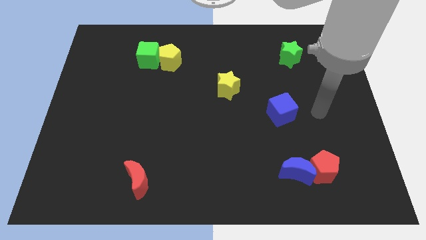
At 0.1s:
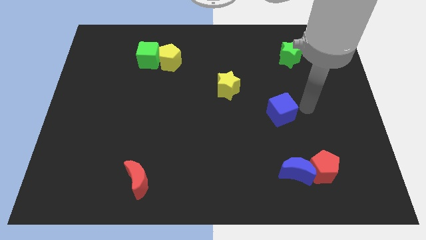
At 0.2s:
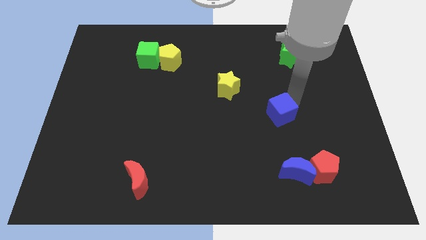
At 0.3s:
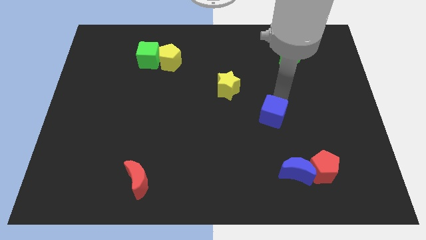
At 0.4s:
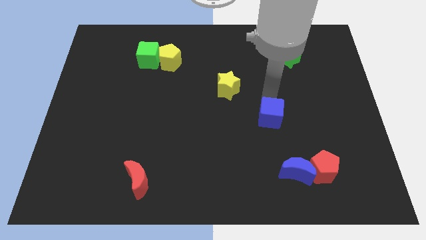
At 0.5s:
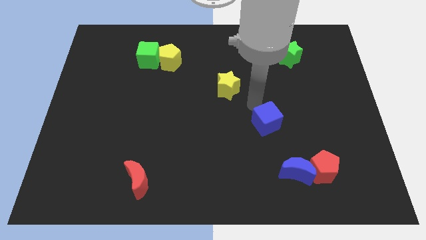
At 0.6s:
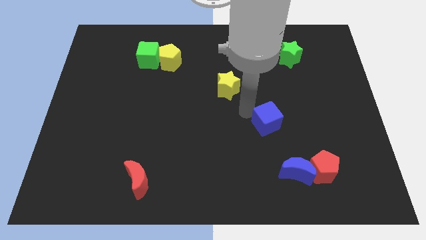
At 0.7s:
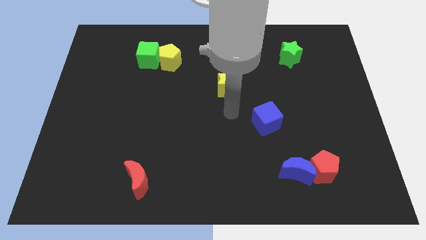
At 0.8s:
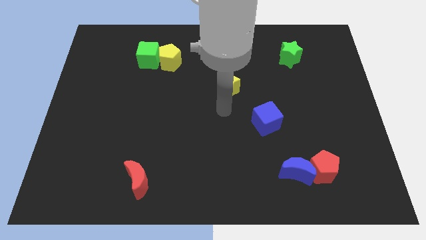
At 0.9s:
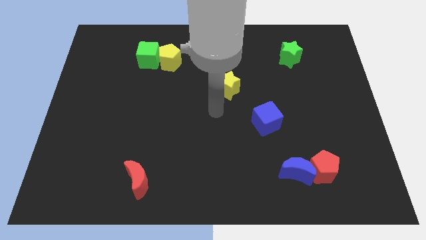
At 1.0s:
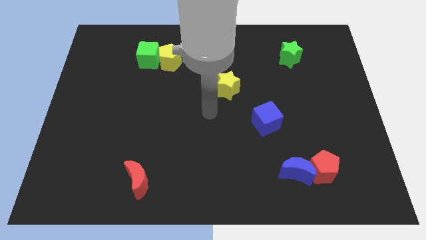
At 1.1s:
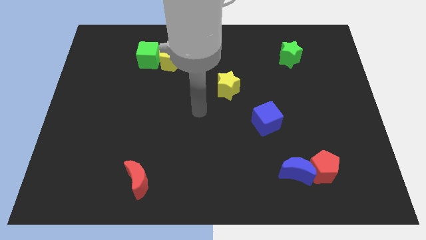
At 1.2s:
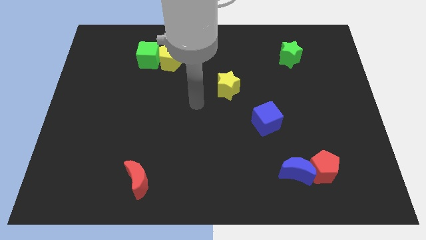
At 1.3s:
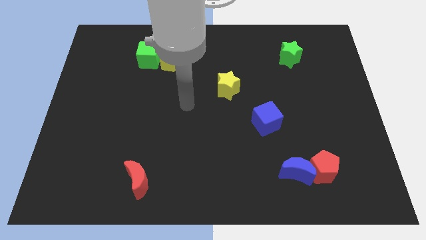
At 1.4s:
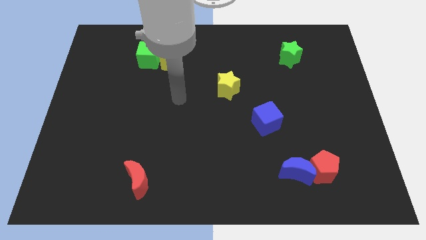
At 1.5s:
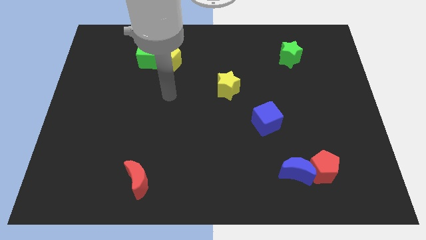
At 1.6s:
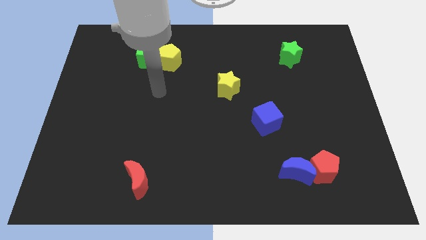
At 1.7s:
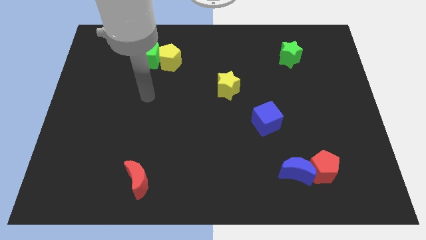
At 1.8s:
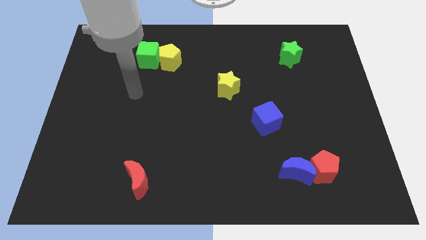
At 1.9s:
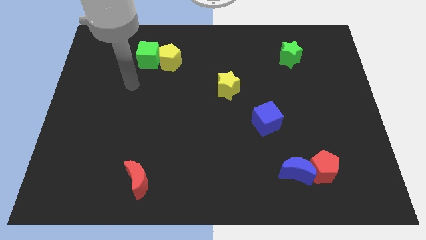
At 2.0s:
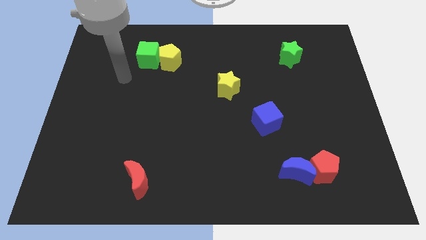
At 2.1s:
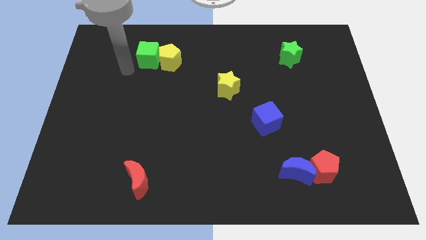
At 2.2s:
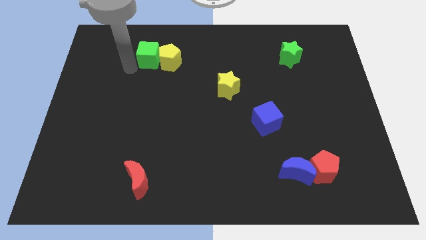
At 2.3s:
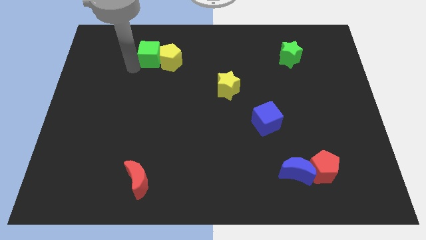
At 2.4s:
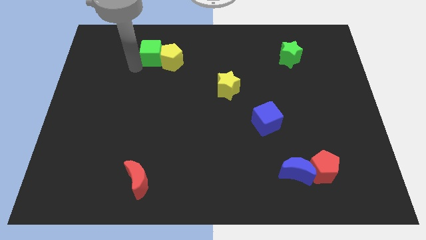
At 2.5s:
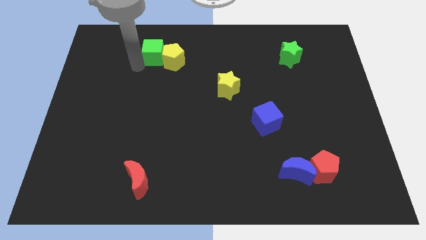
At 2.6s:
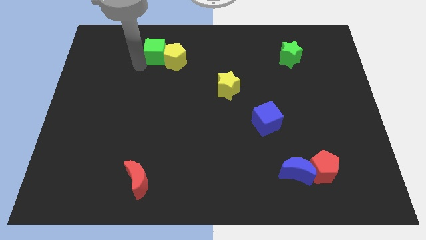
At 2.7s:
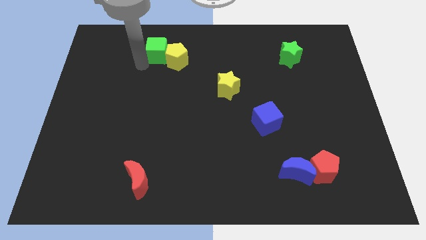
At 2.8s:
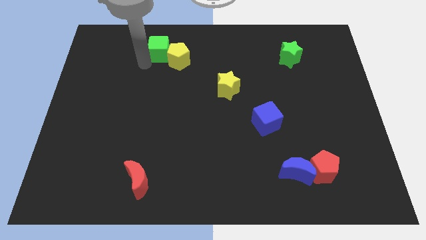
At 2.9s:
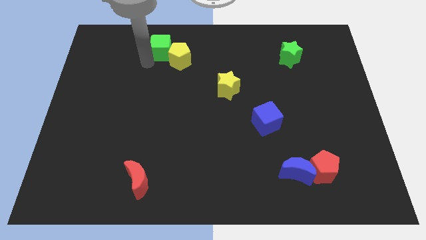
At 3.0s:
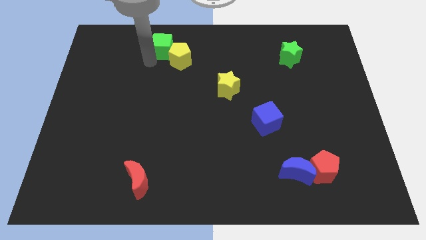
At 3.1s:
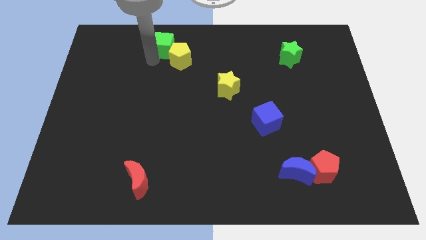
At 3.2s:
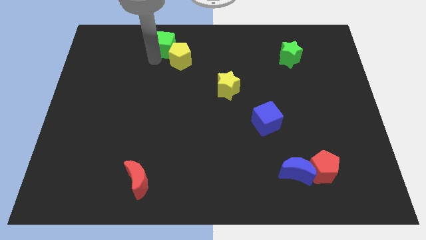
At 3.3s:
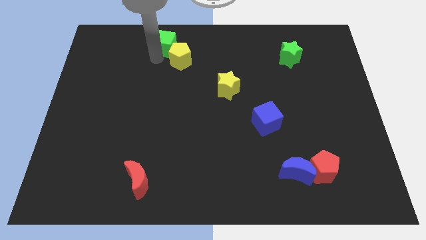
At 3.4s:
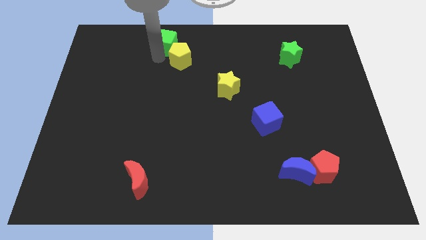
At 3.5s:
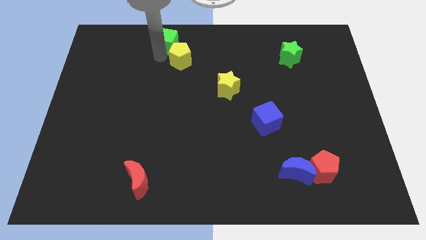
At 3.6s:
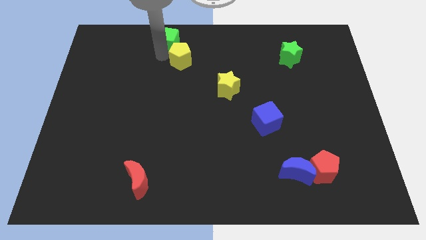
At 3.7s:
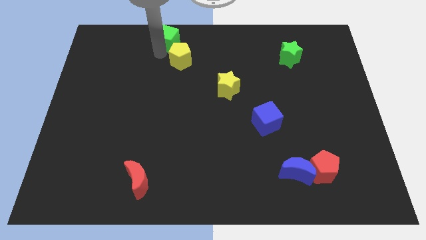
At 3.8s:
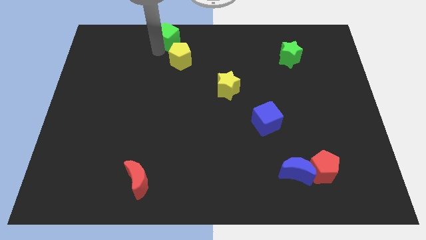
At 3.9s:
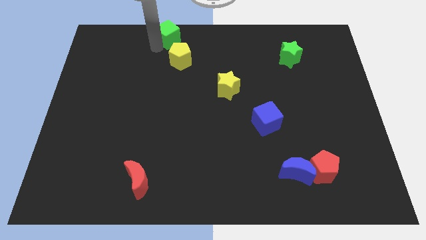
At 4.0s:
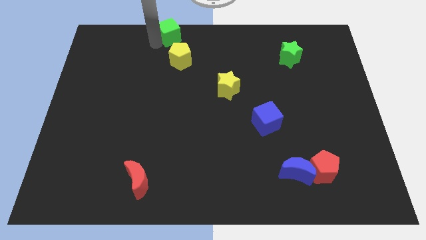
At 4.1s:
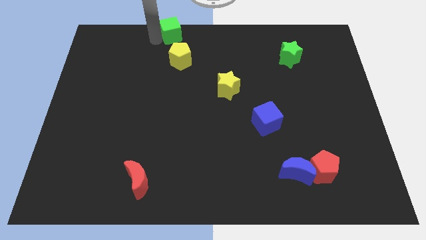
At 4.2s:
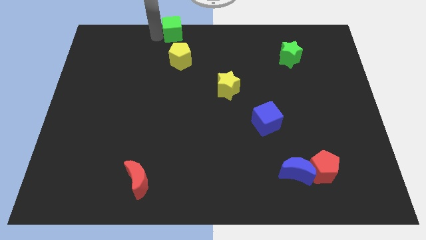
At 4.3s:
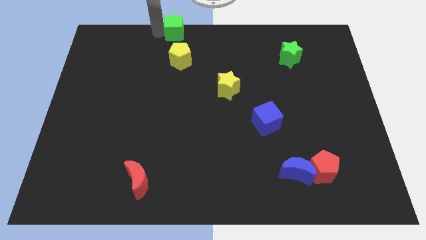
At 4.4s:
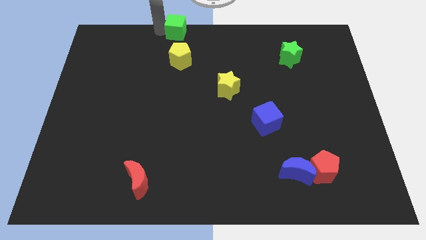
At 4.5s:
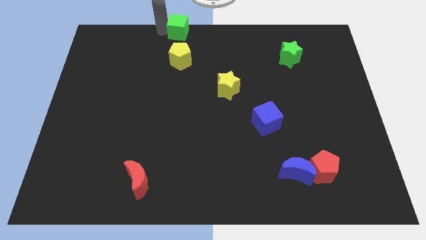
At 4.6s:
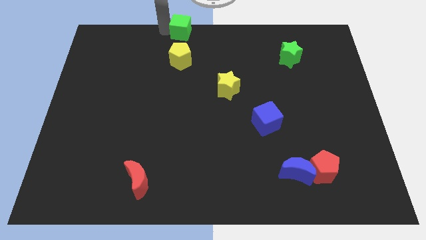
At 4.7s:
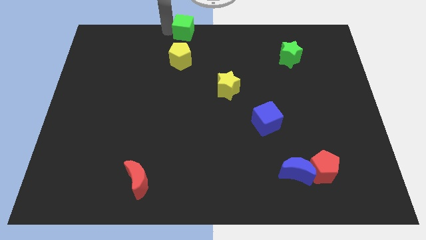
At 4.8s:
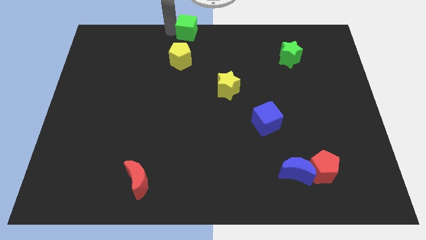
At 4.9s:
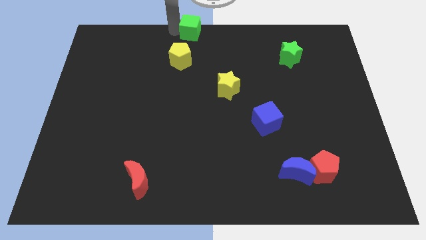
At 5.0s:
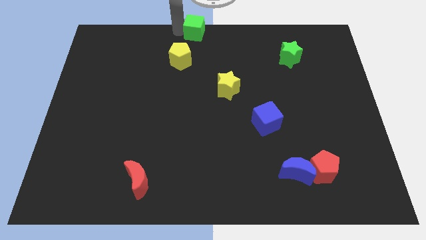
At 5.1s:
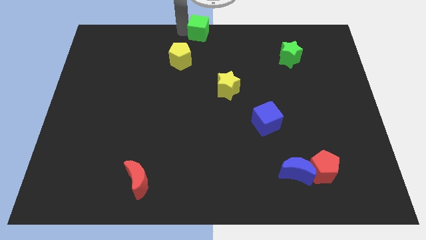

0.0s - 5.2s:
slightly move the green cube right

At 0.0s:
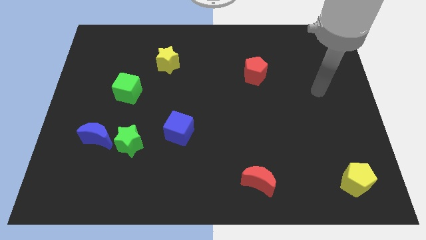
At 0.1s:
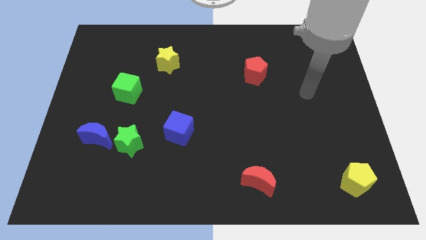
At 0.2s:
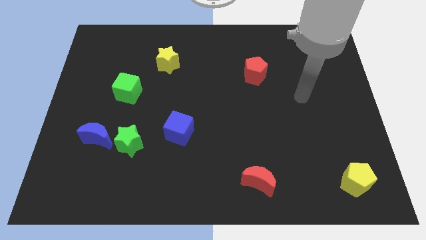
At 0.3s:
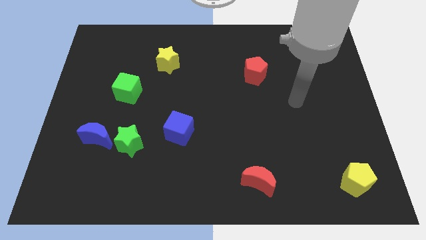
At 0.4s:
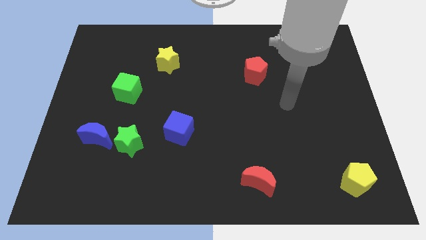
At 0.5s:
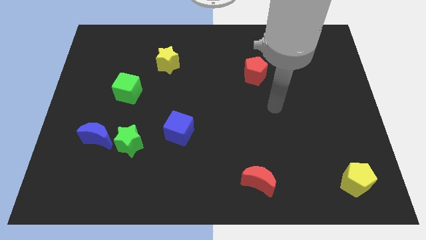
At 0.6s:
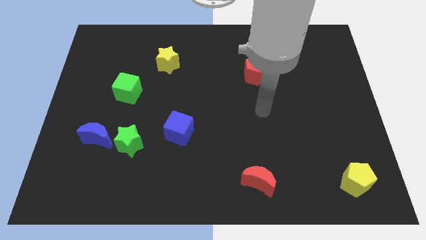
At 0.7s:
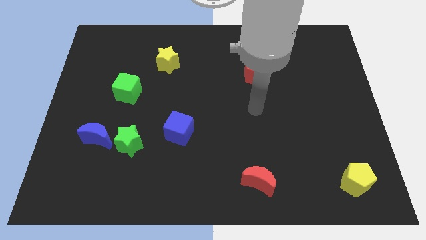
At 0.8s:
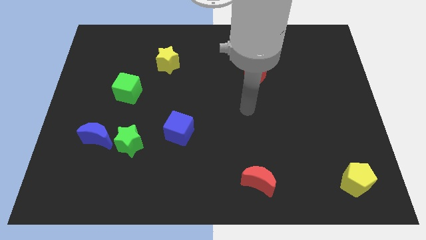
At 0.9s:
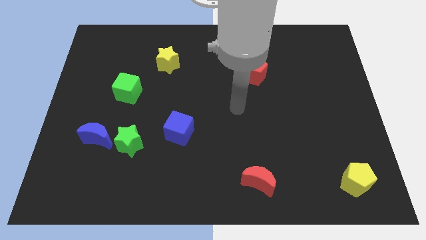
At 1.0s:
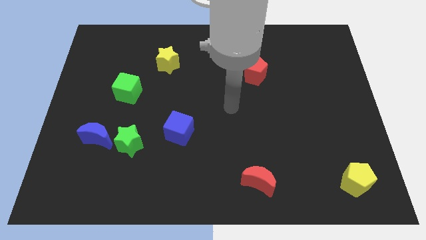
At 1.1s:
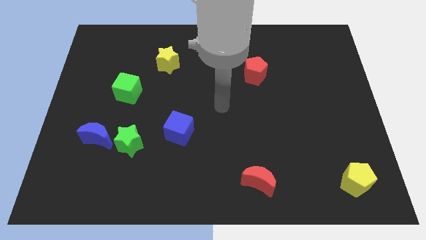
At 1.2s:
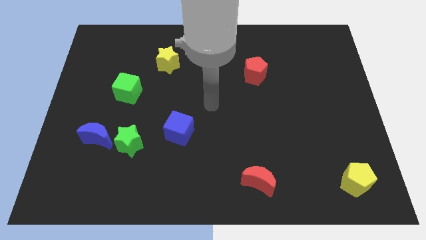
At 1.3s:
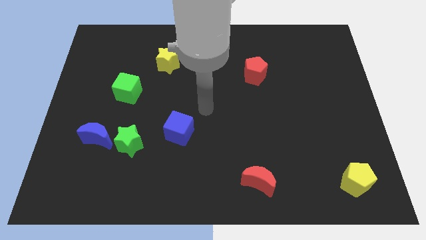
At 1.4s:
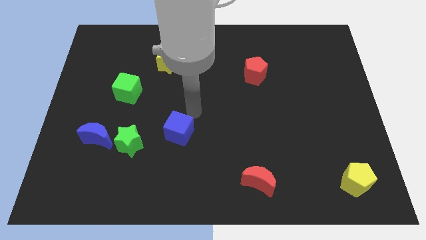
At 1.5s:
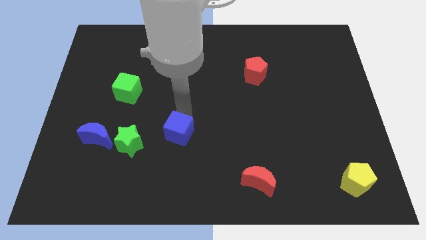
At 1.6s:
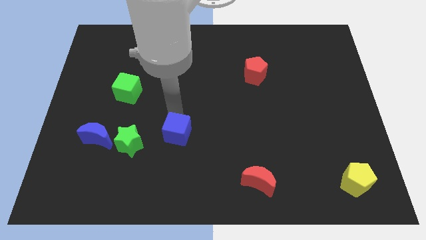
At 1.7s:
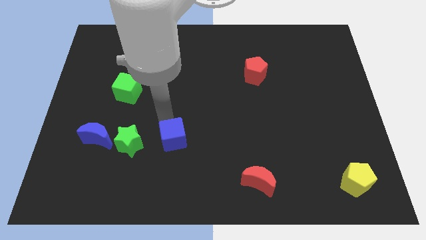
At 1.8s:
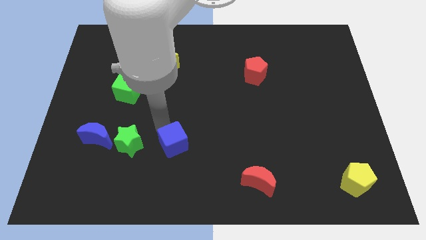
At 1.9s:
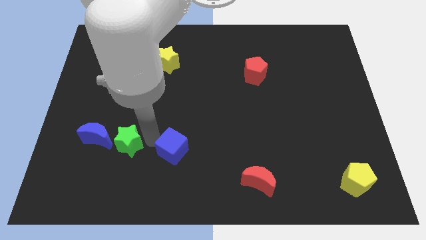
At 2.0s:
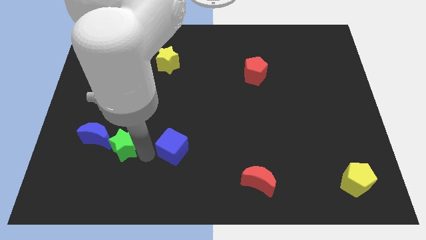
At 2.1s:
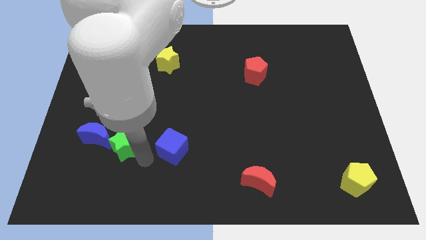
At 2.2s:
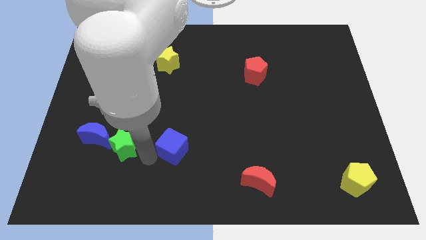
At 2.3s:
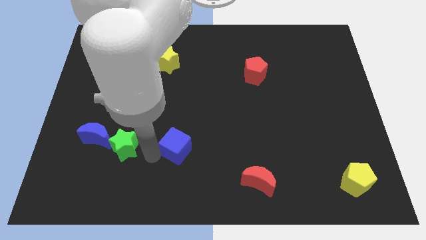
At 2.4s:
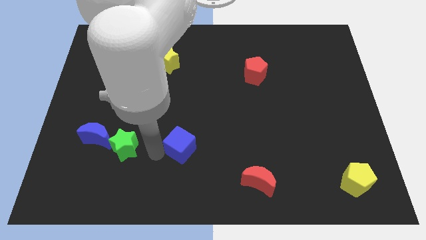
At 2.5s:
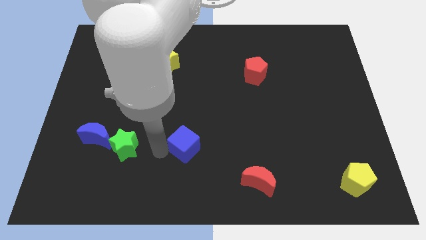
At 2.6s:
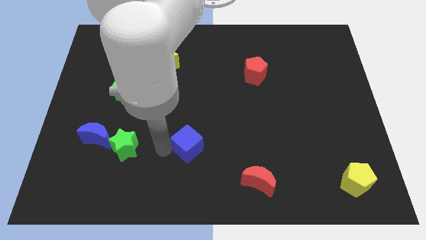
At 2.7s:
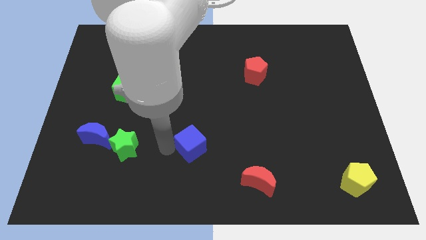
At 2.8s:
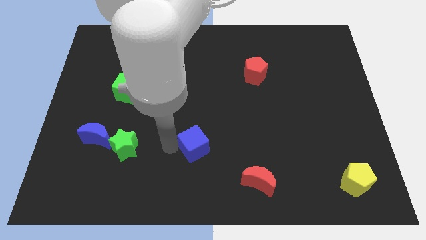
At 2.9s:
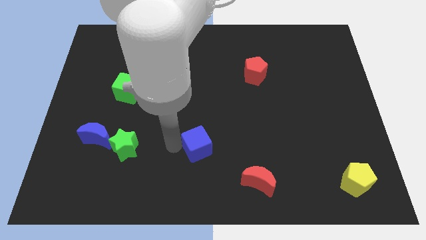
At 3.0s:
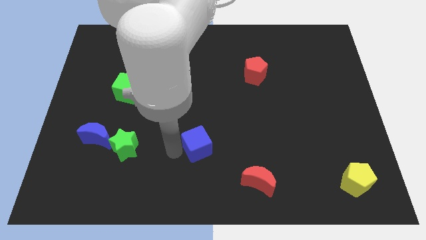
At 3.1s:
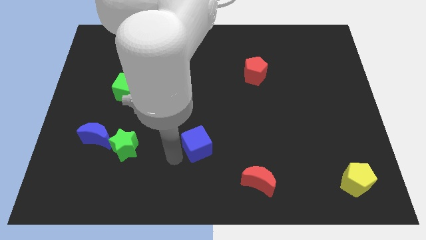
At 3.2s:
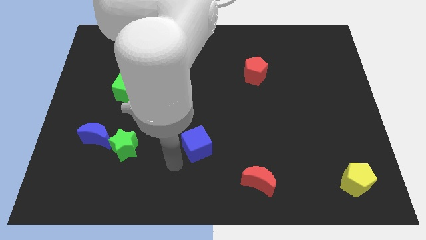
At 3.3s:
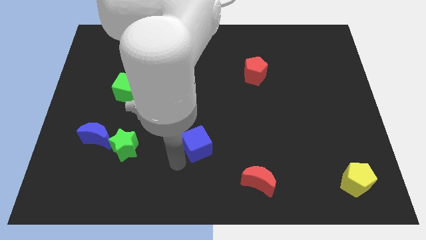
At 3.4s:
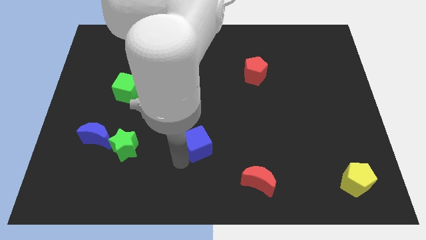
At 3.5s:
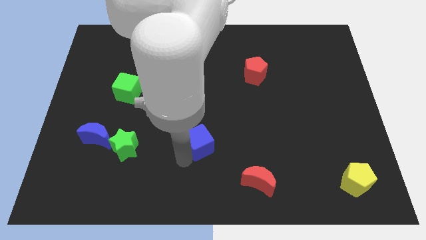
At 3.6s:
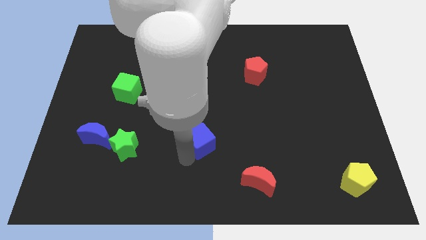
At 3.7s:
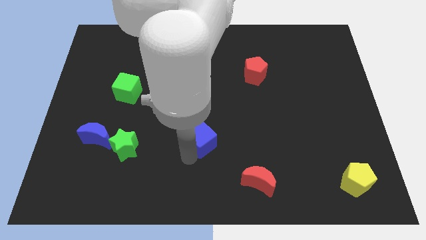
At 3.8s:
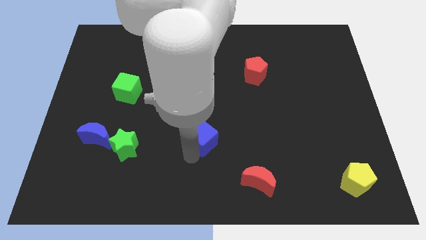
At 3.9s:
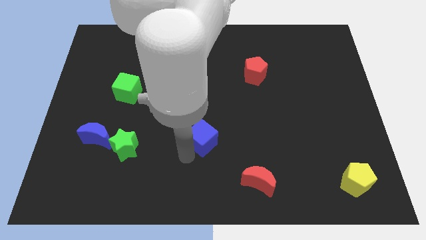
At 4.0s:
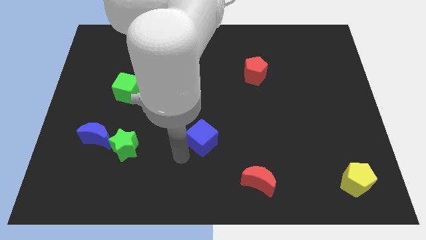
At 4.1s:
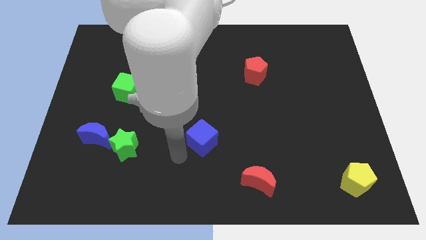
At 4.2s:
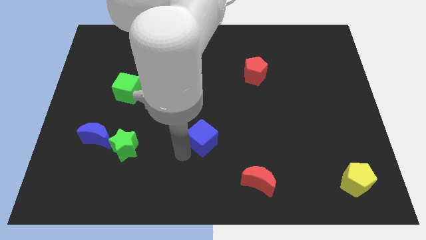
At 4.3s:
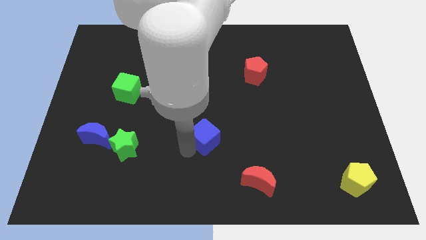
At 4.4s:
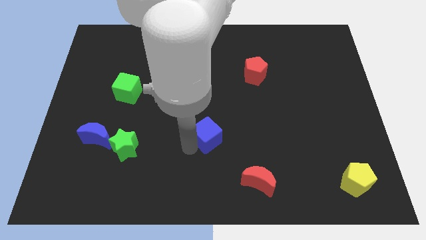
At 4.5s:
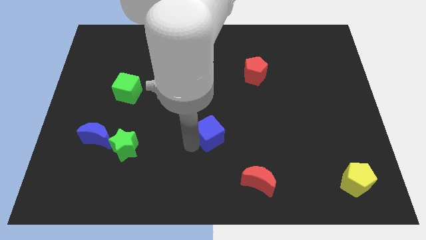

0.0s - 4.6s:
push the blue cube to the right somewhat
